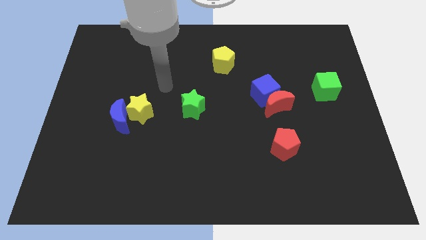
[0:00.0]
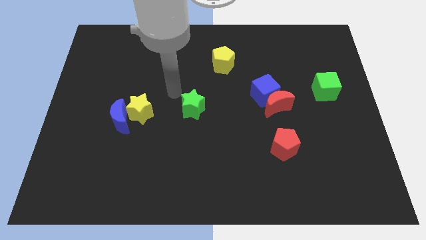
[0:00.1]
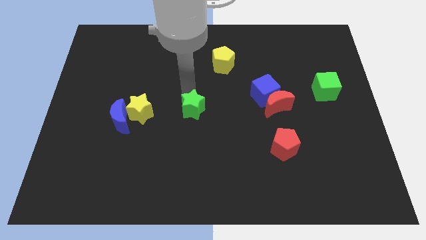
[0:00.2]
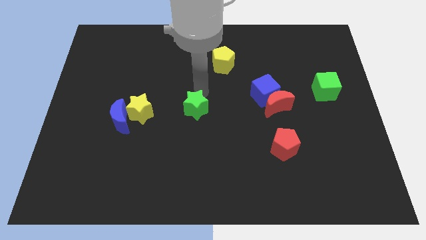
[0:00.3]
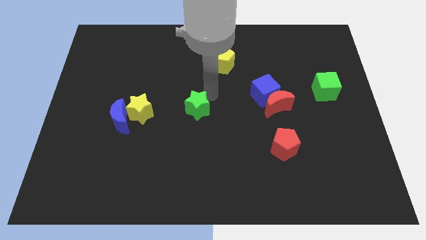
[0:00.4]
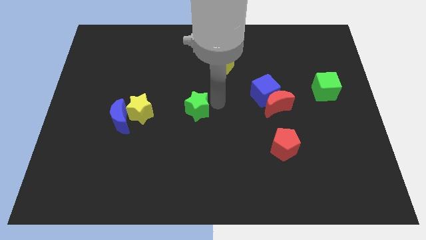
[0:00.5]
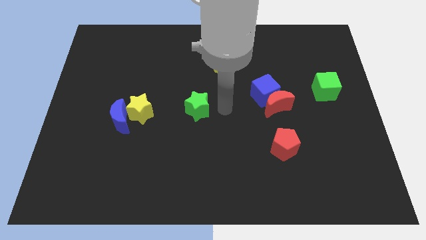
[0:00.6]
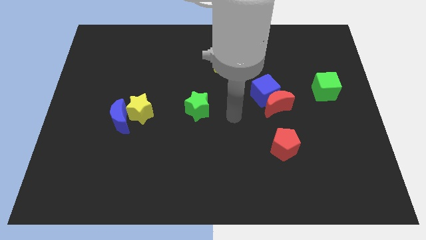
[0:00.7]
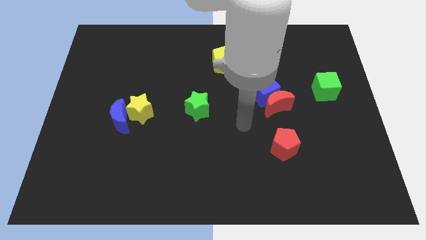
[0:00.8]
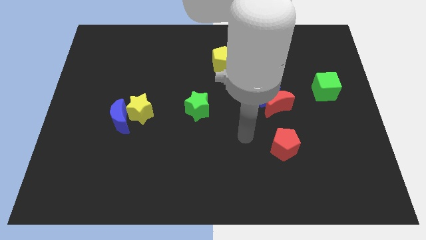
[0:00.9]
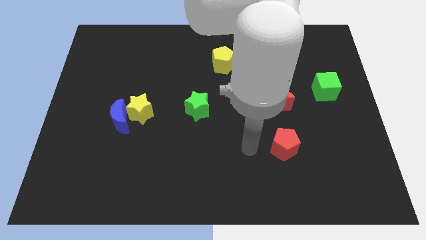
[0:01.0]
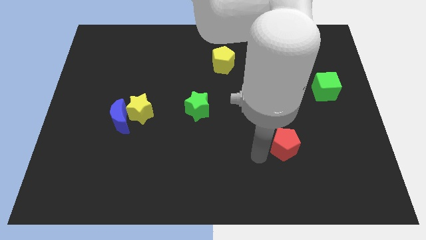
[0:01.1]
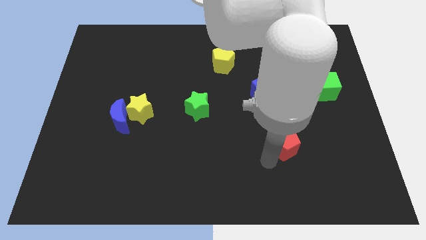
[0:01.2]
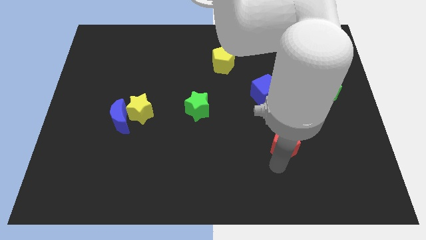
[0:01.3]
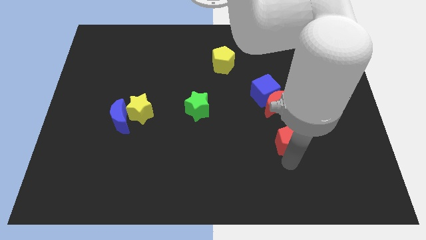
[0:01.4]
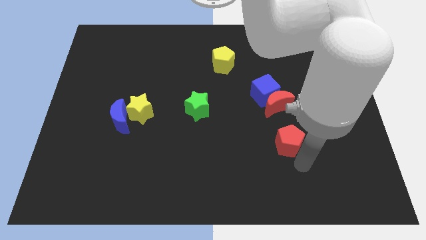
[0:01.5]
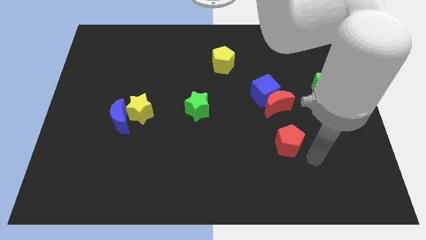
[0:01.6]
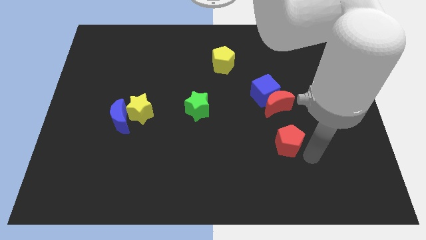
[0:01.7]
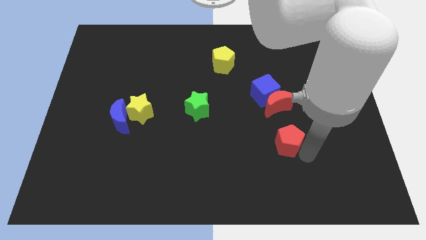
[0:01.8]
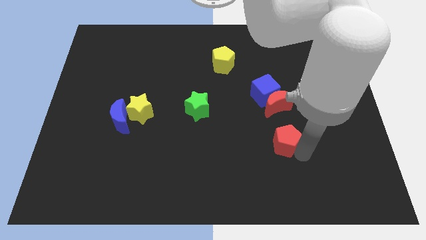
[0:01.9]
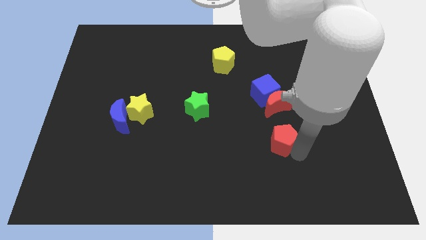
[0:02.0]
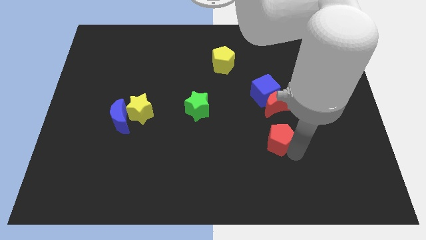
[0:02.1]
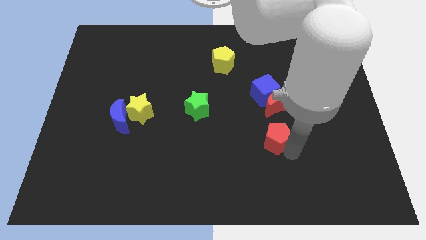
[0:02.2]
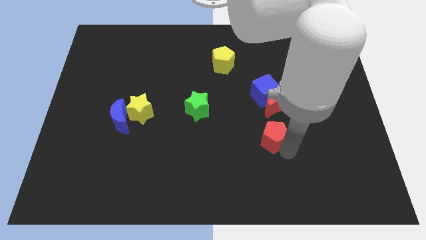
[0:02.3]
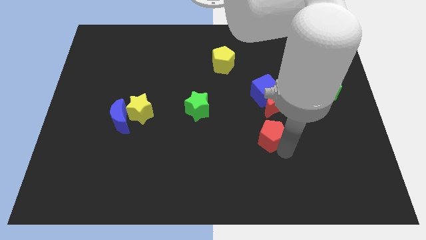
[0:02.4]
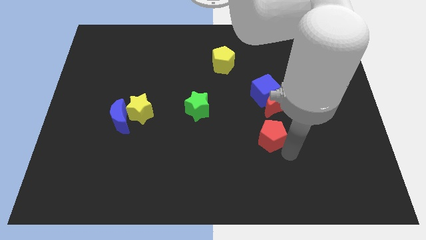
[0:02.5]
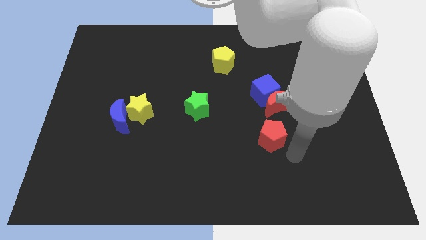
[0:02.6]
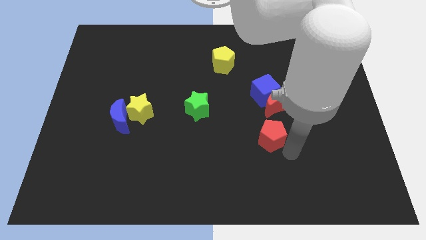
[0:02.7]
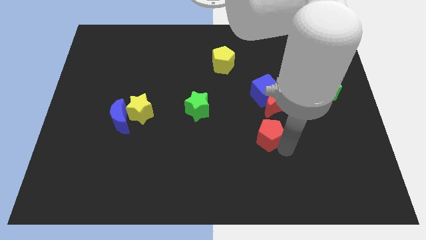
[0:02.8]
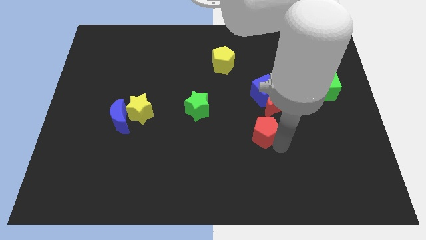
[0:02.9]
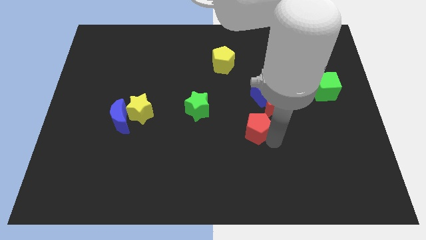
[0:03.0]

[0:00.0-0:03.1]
slightly move the red pentagon up and left

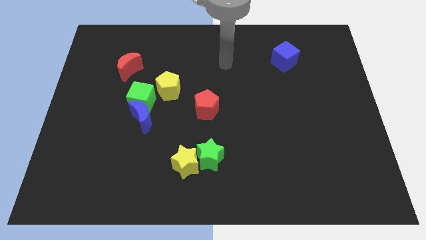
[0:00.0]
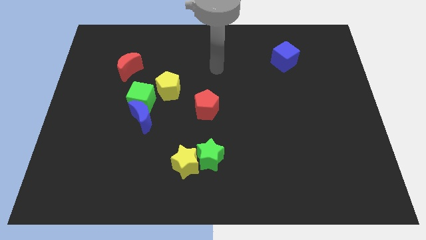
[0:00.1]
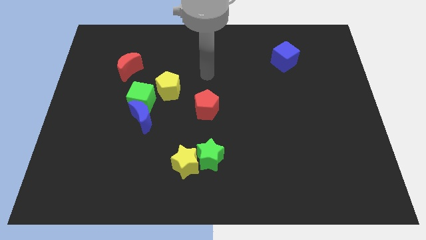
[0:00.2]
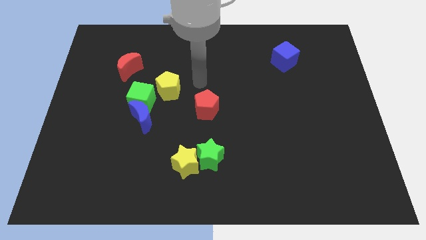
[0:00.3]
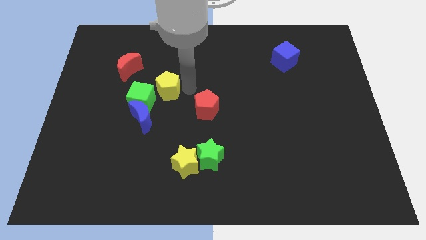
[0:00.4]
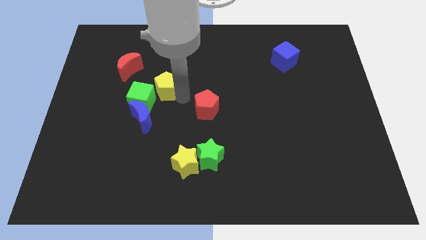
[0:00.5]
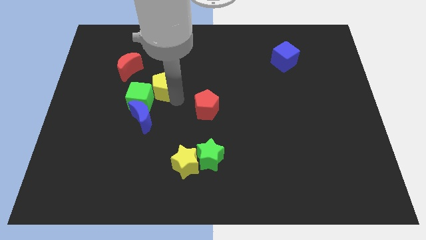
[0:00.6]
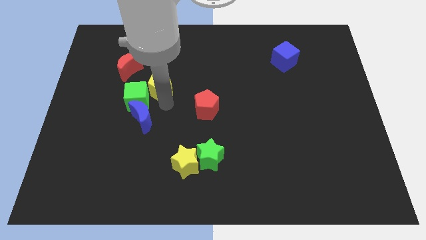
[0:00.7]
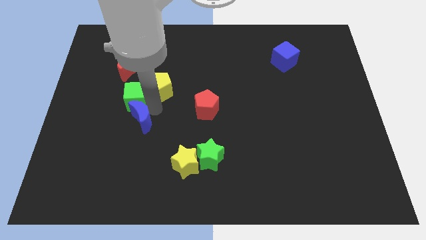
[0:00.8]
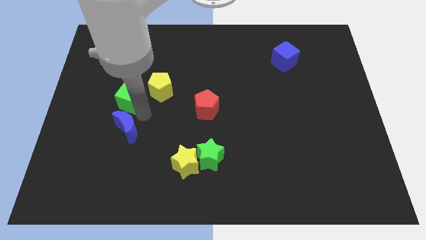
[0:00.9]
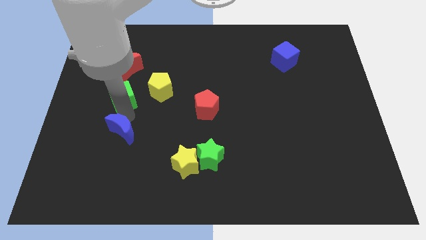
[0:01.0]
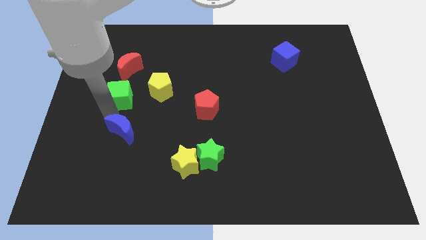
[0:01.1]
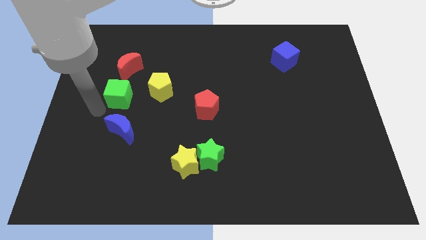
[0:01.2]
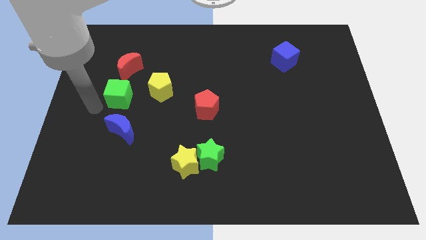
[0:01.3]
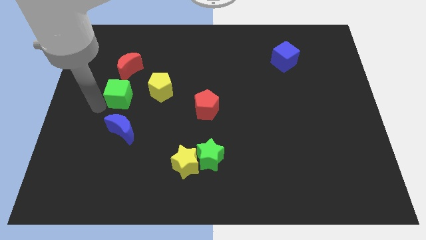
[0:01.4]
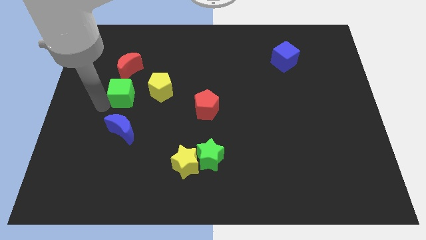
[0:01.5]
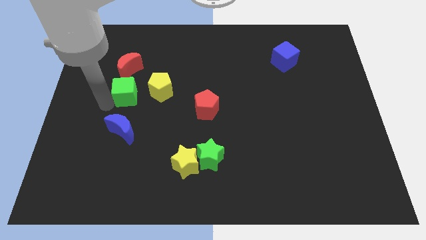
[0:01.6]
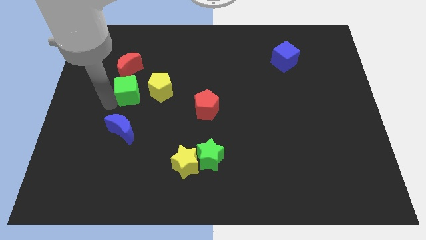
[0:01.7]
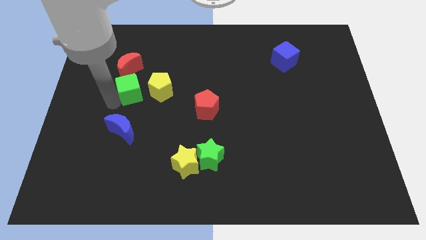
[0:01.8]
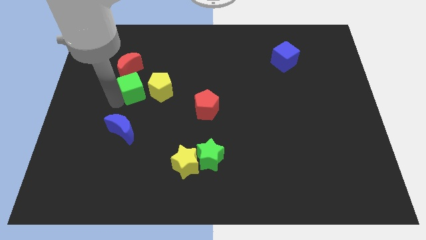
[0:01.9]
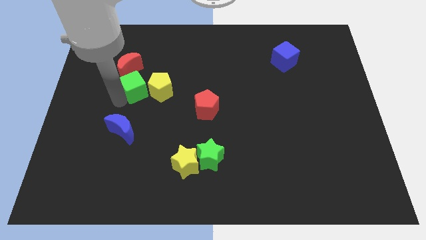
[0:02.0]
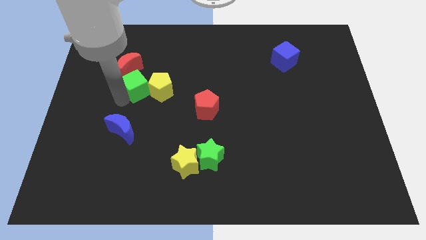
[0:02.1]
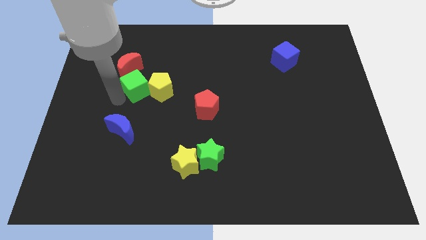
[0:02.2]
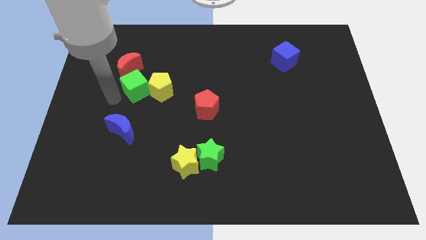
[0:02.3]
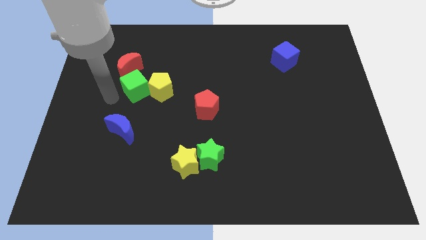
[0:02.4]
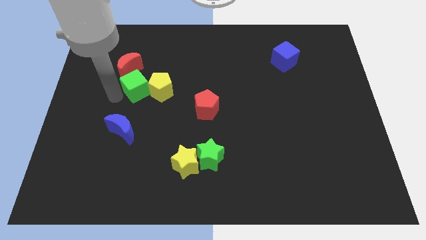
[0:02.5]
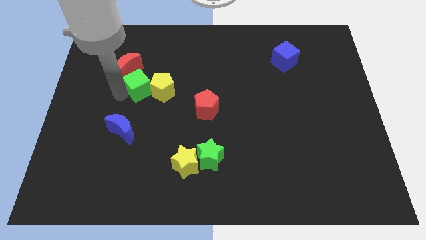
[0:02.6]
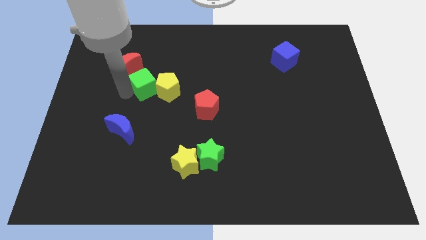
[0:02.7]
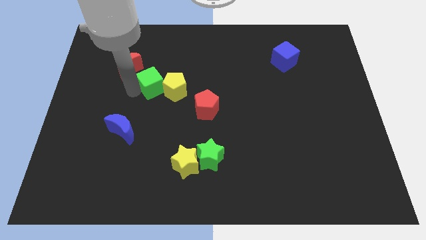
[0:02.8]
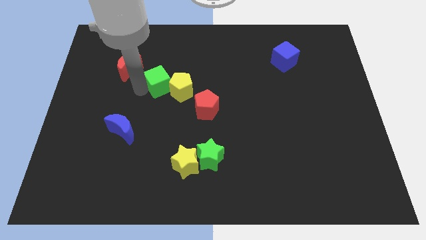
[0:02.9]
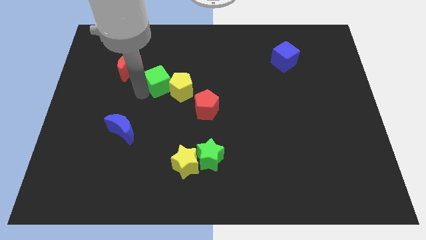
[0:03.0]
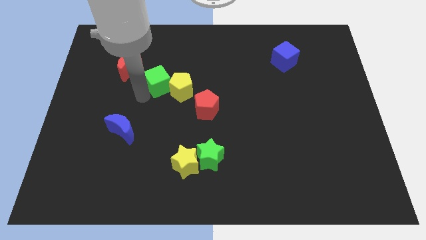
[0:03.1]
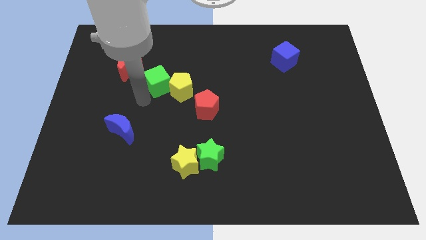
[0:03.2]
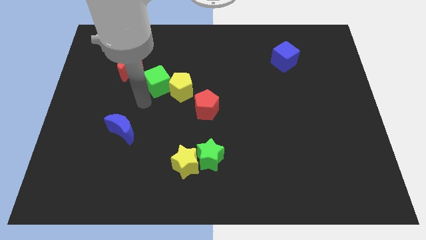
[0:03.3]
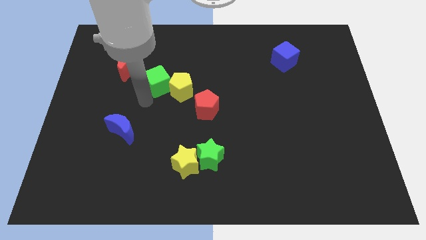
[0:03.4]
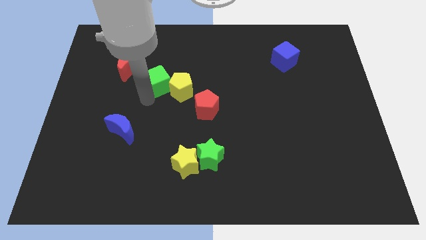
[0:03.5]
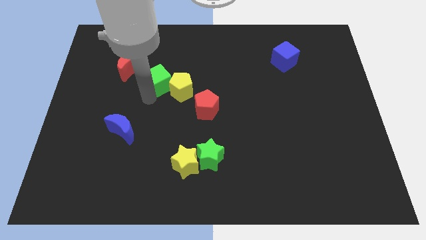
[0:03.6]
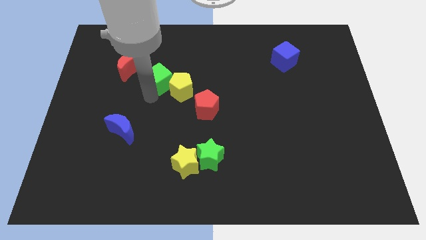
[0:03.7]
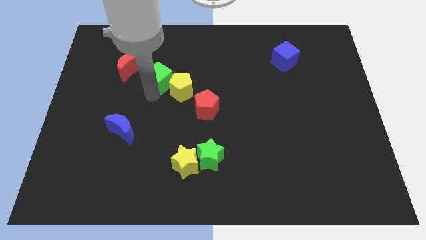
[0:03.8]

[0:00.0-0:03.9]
push the green cube a little bit upwards and right

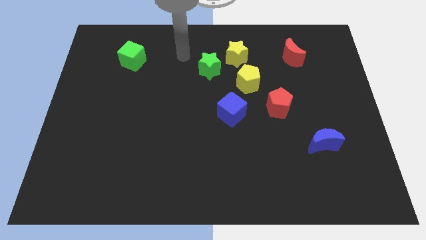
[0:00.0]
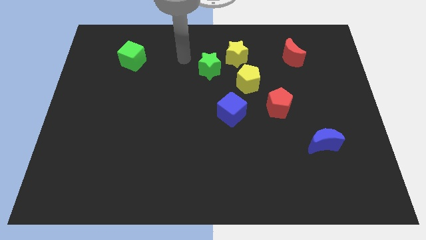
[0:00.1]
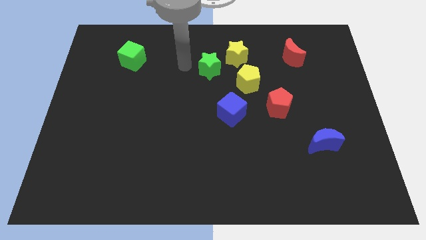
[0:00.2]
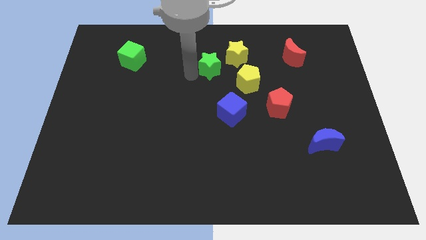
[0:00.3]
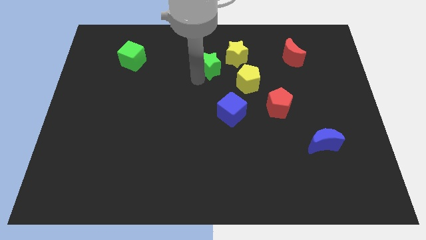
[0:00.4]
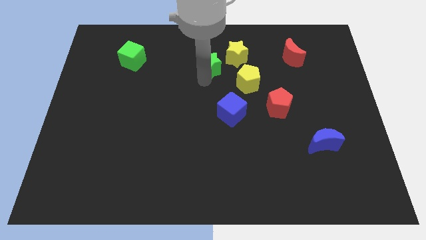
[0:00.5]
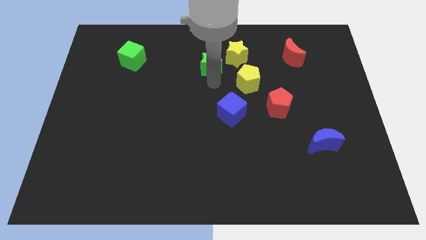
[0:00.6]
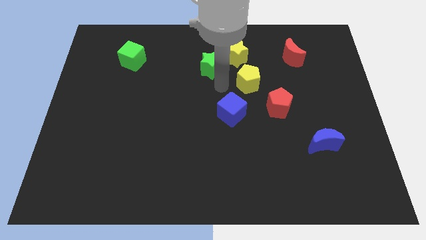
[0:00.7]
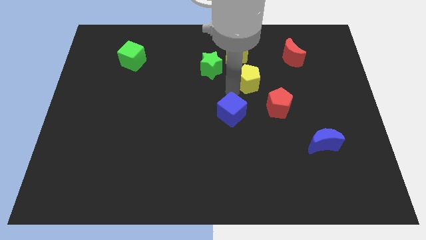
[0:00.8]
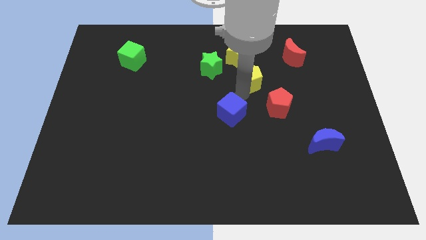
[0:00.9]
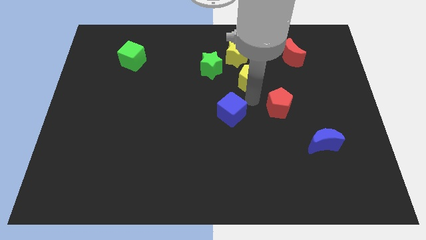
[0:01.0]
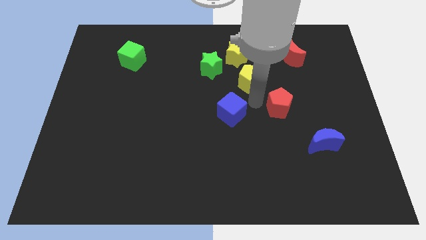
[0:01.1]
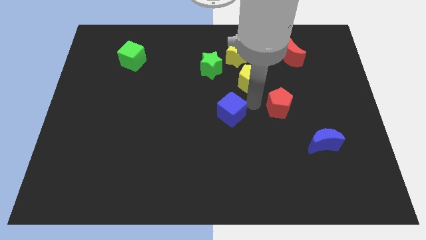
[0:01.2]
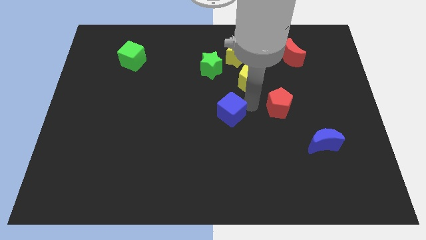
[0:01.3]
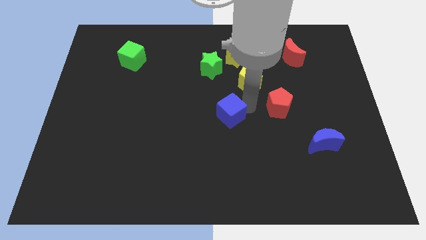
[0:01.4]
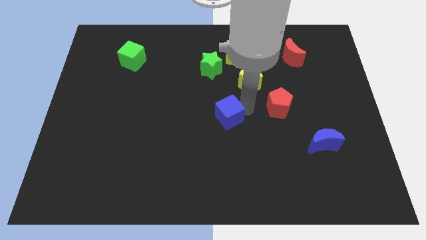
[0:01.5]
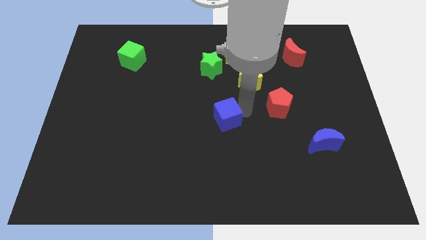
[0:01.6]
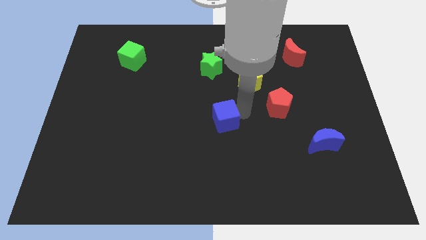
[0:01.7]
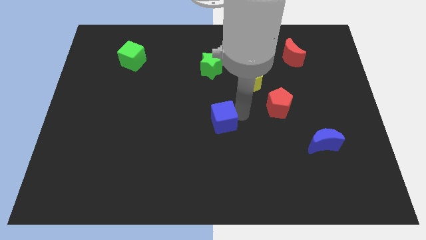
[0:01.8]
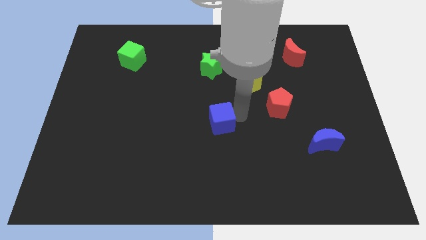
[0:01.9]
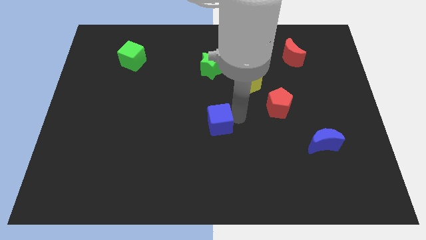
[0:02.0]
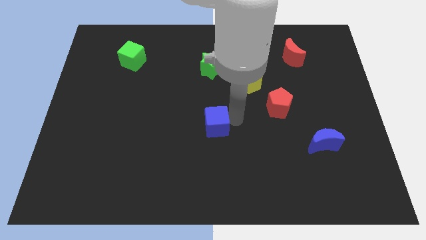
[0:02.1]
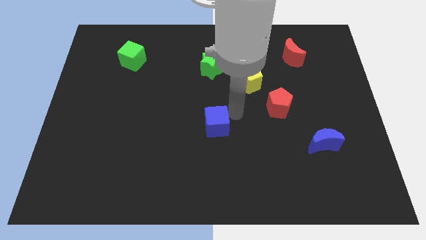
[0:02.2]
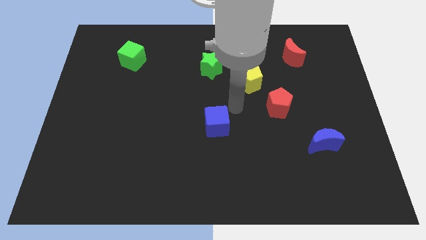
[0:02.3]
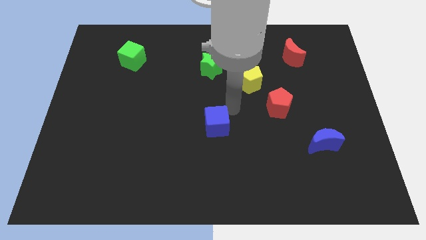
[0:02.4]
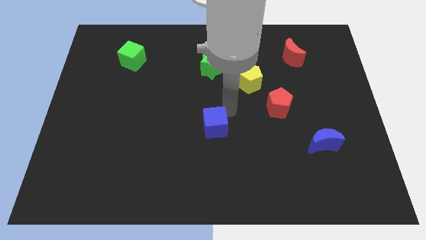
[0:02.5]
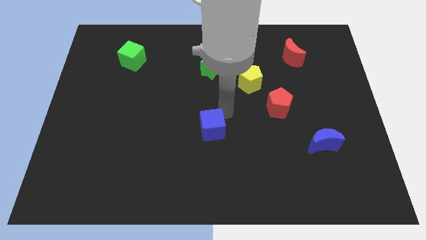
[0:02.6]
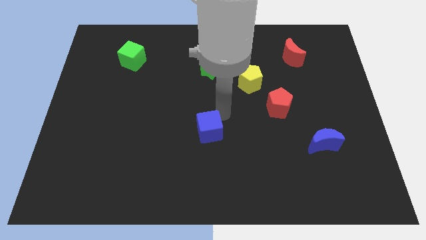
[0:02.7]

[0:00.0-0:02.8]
slightly push the blue cube down and to the left
